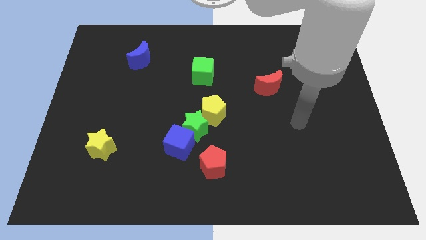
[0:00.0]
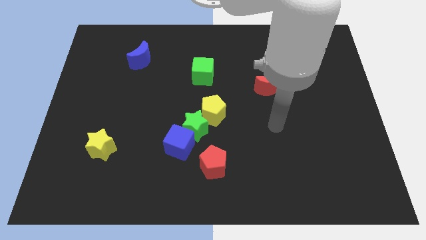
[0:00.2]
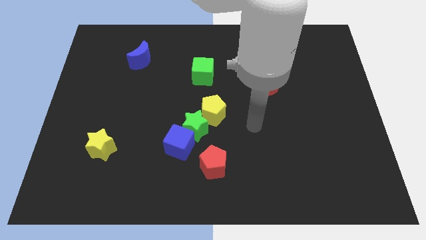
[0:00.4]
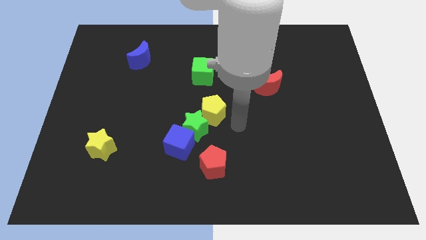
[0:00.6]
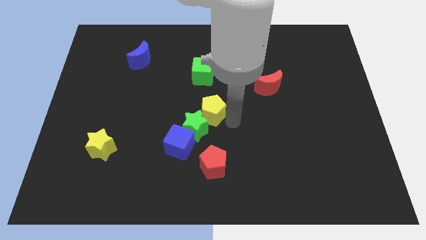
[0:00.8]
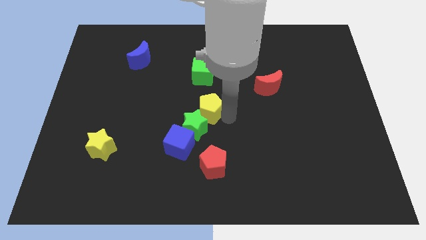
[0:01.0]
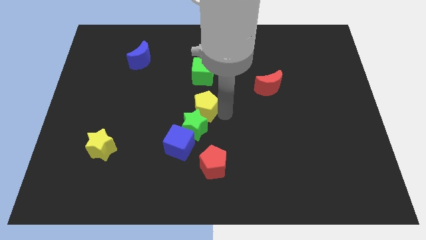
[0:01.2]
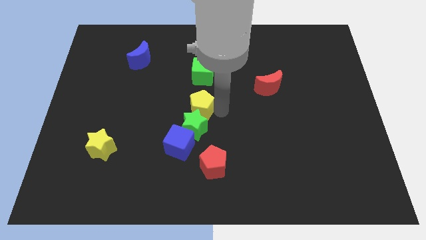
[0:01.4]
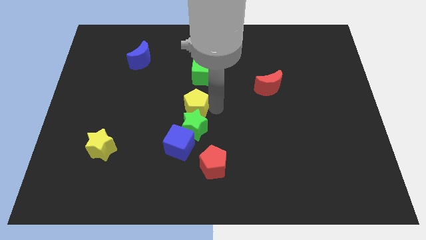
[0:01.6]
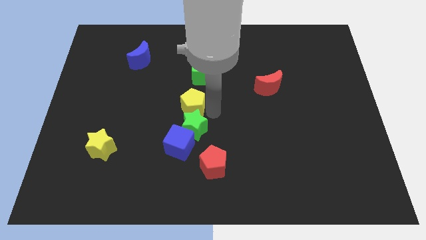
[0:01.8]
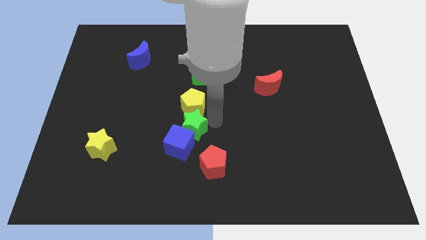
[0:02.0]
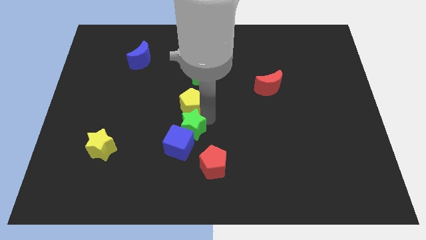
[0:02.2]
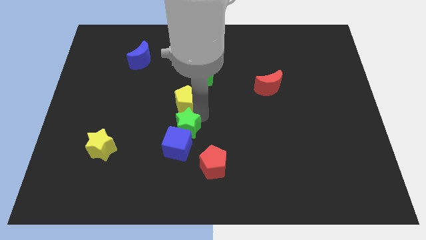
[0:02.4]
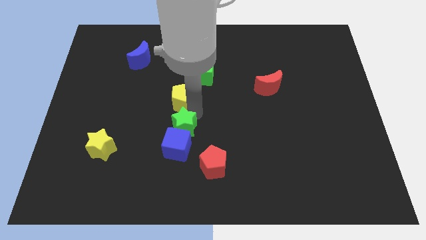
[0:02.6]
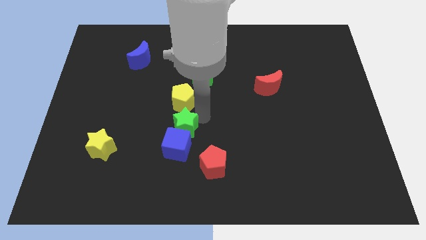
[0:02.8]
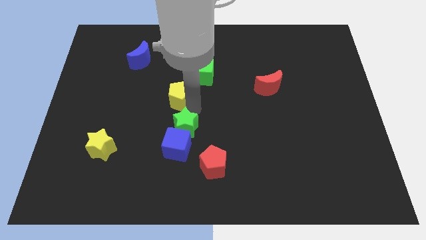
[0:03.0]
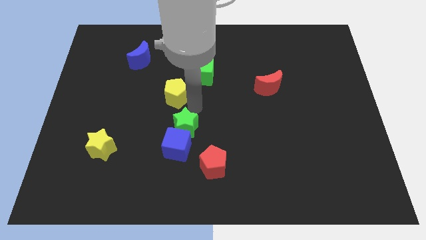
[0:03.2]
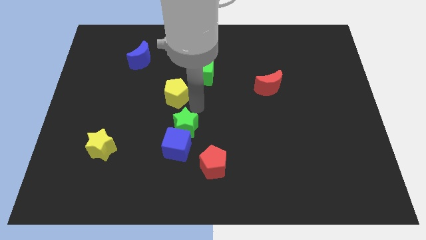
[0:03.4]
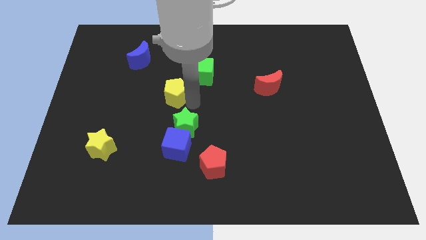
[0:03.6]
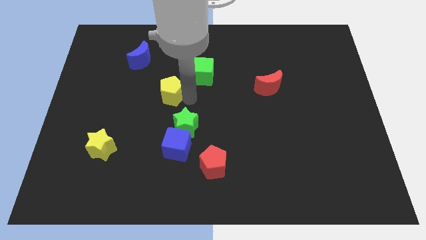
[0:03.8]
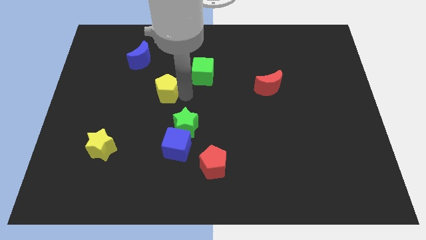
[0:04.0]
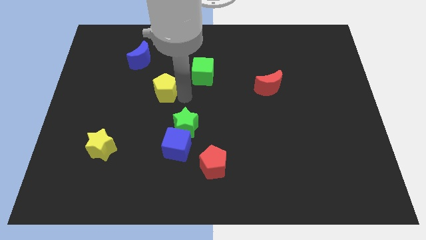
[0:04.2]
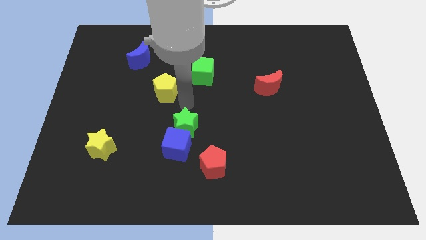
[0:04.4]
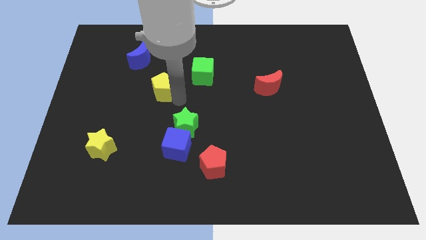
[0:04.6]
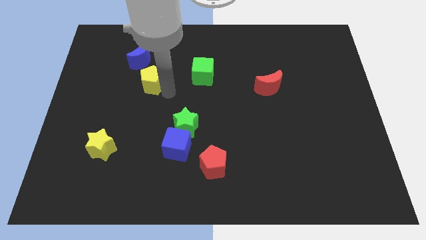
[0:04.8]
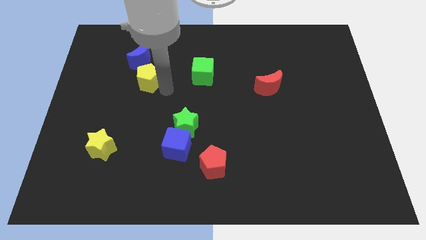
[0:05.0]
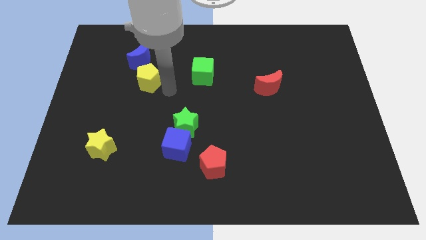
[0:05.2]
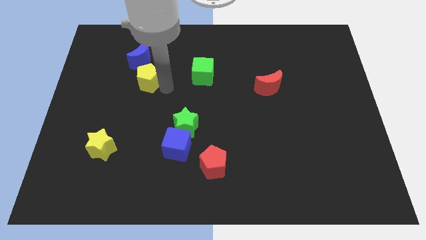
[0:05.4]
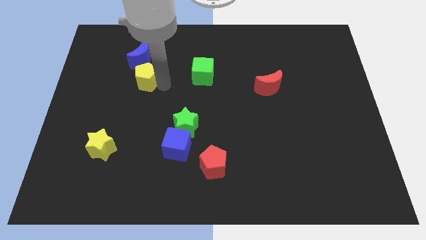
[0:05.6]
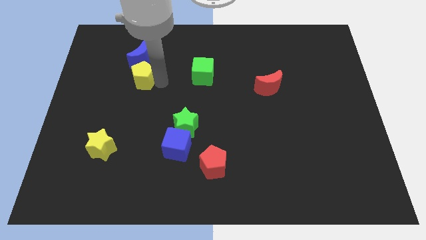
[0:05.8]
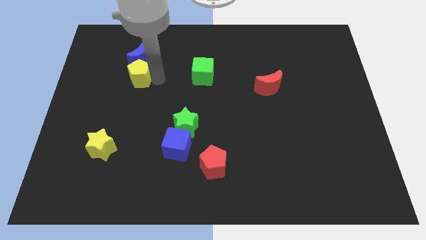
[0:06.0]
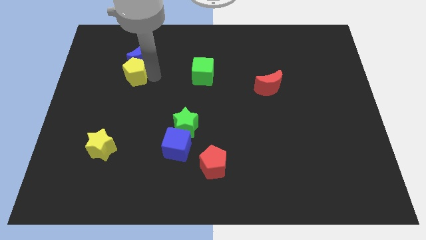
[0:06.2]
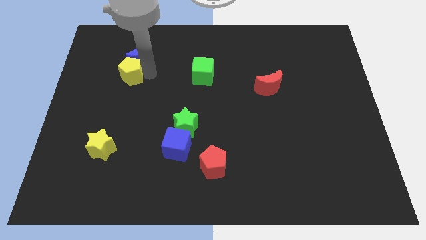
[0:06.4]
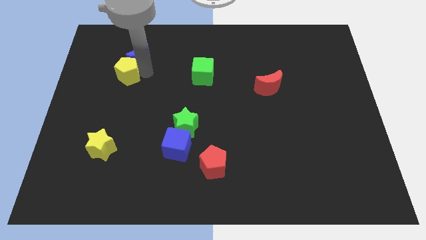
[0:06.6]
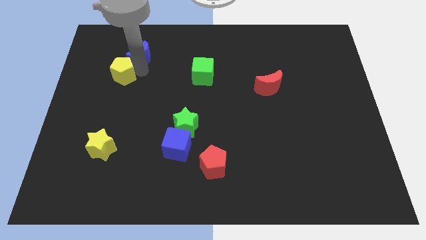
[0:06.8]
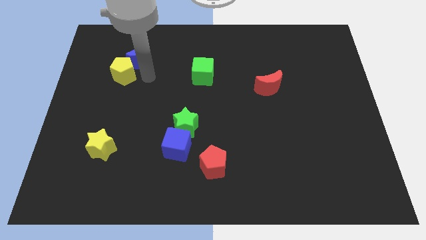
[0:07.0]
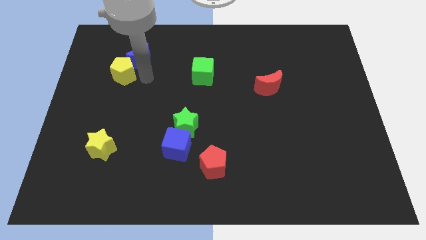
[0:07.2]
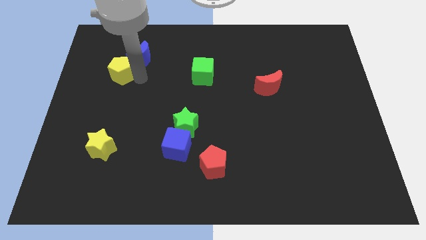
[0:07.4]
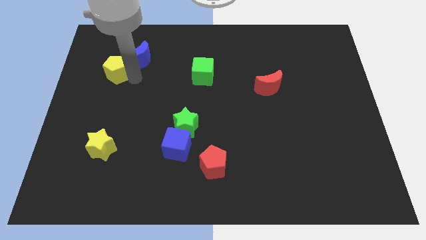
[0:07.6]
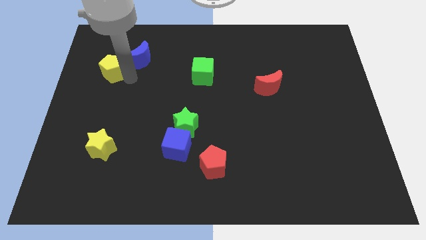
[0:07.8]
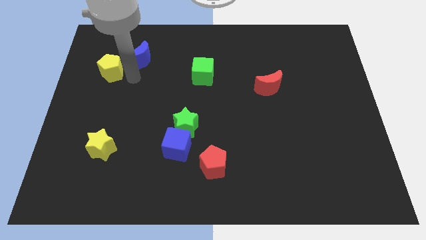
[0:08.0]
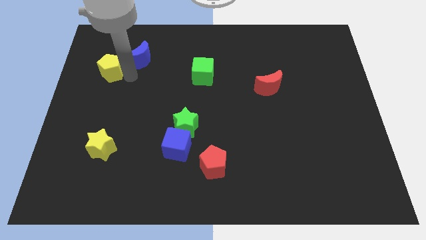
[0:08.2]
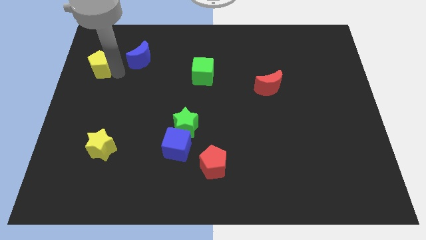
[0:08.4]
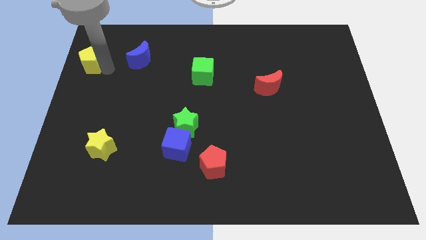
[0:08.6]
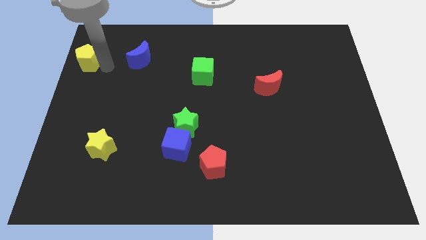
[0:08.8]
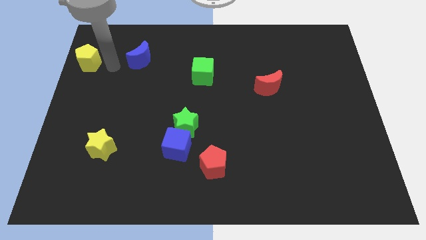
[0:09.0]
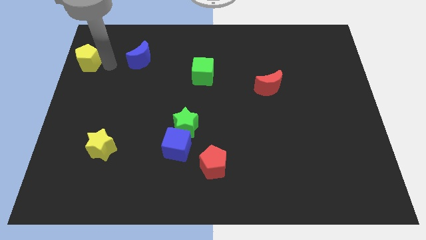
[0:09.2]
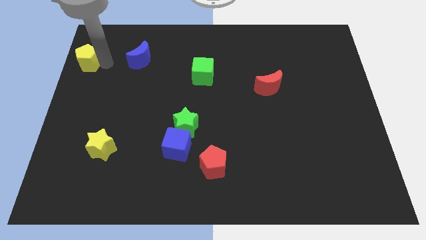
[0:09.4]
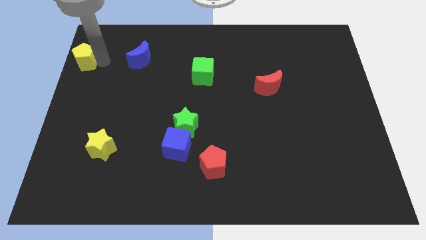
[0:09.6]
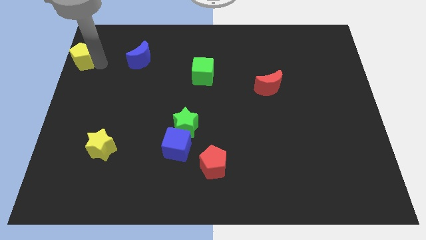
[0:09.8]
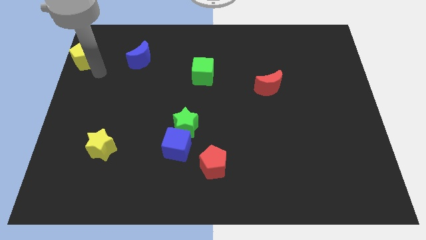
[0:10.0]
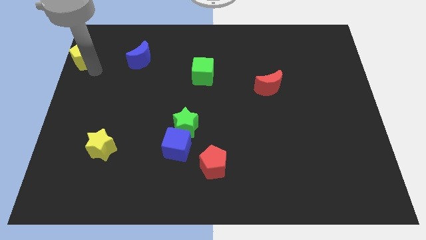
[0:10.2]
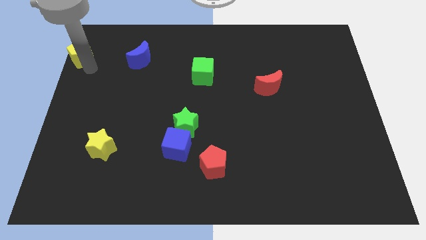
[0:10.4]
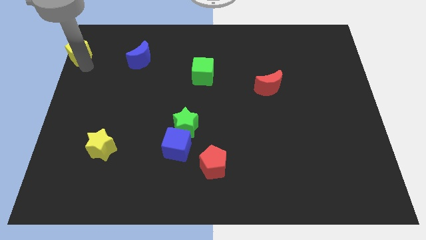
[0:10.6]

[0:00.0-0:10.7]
move the yellow pentagon to the top left corner

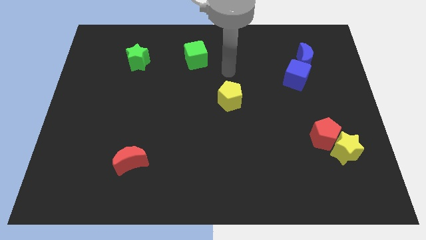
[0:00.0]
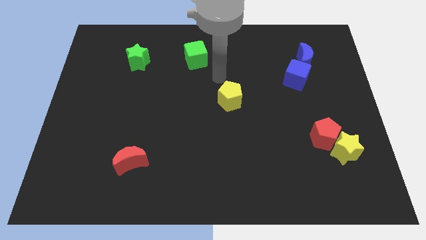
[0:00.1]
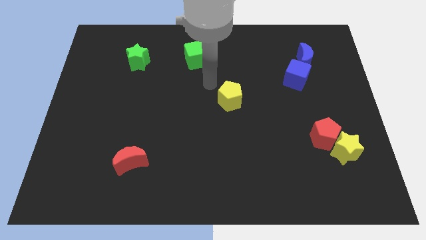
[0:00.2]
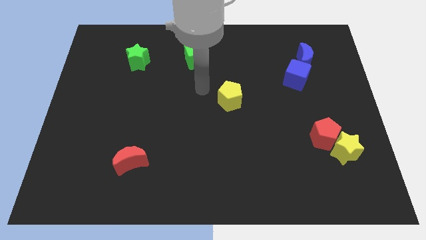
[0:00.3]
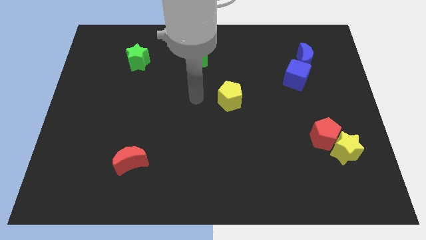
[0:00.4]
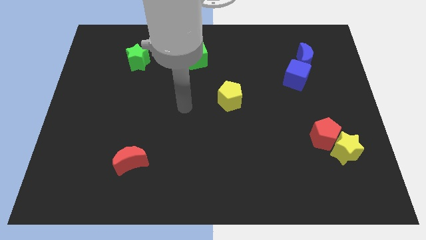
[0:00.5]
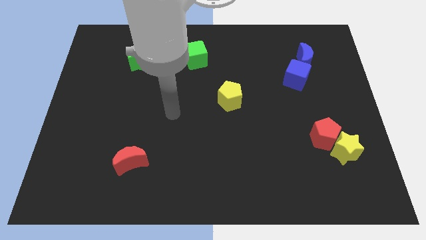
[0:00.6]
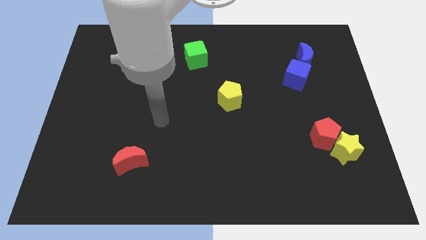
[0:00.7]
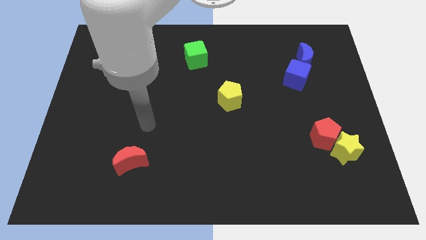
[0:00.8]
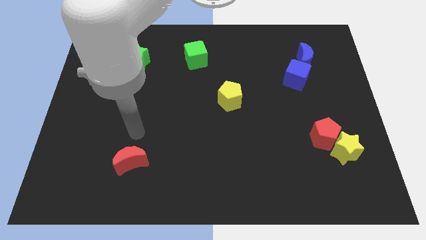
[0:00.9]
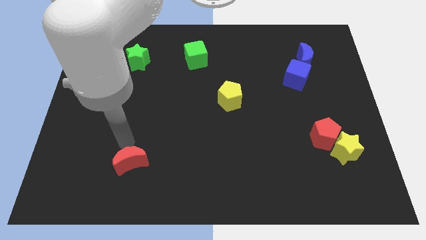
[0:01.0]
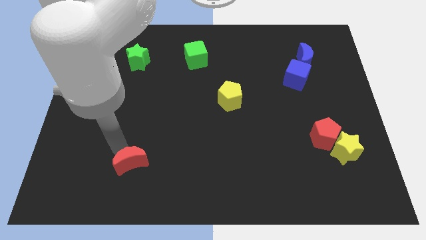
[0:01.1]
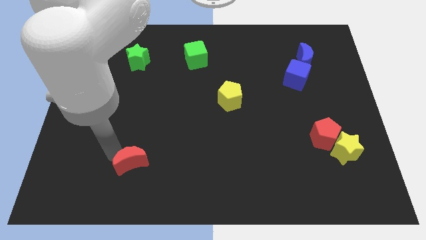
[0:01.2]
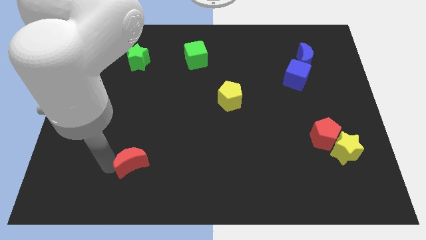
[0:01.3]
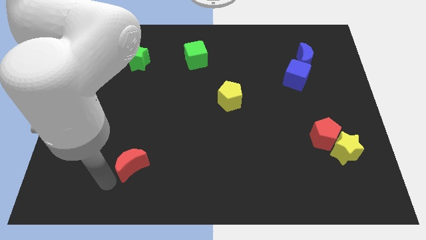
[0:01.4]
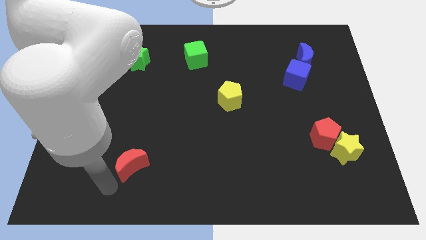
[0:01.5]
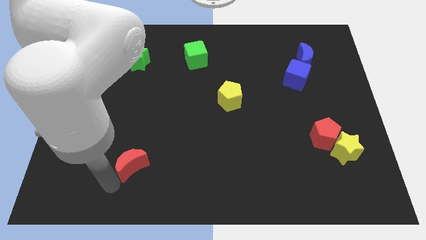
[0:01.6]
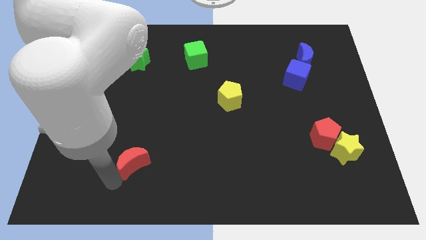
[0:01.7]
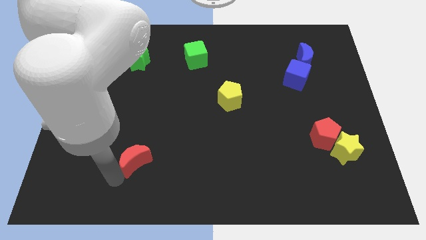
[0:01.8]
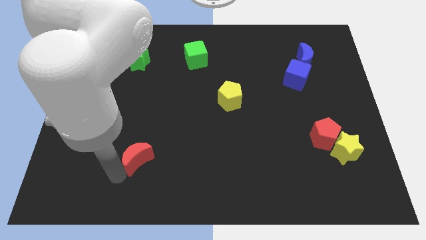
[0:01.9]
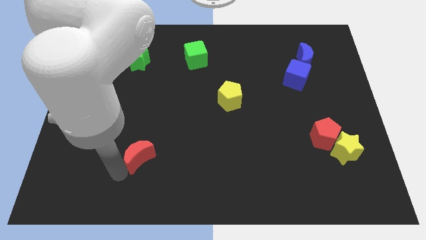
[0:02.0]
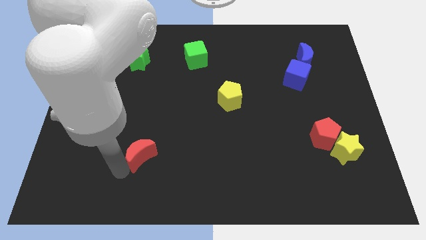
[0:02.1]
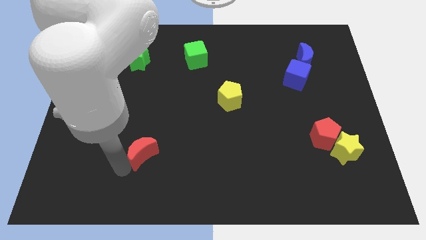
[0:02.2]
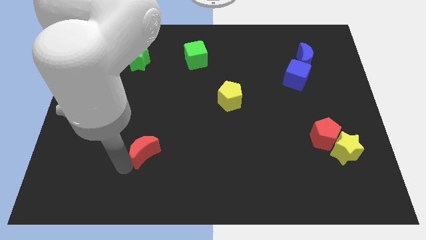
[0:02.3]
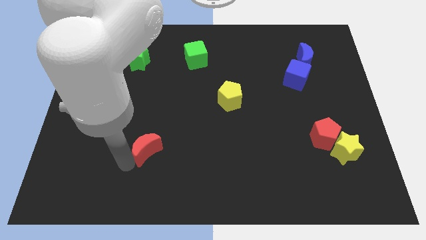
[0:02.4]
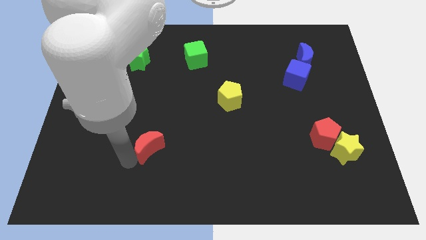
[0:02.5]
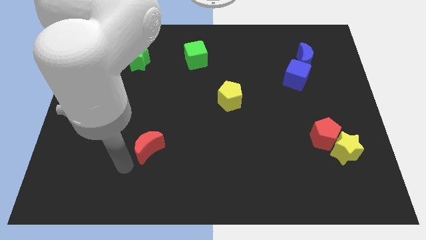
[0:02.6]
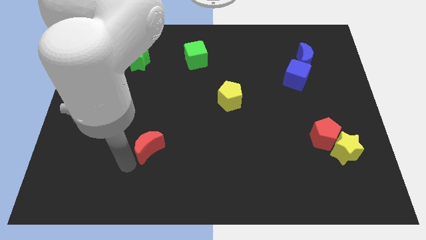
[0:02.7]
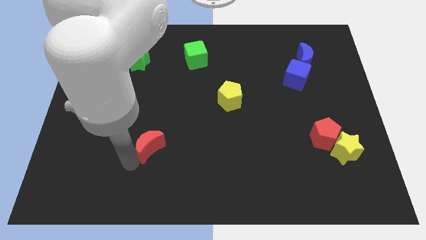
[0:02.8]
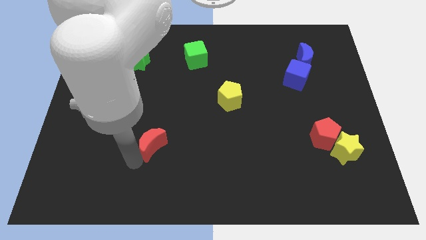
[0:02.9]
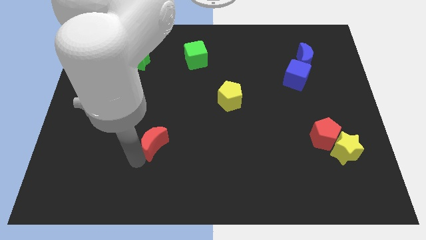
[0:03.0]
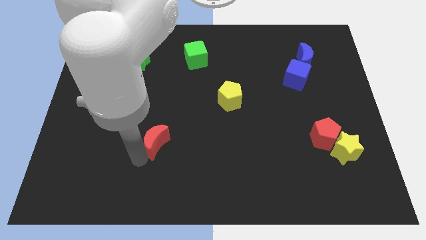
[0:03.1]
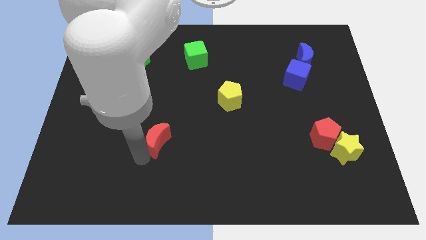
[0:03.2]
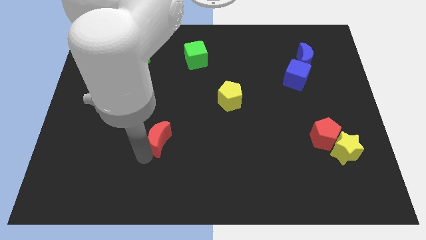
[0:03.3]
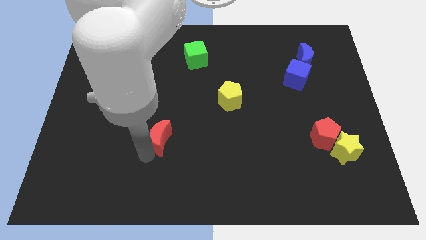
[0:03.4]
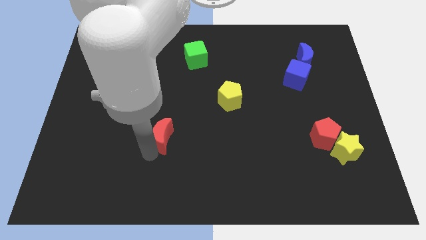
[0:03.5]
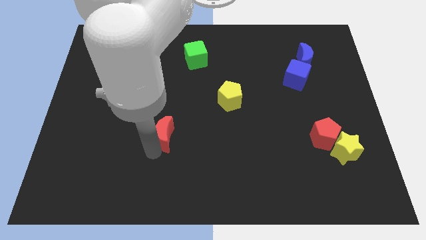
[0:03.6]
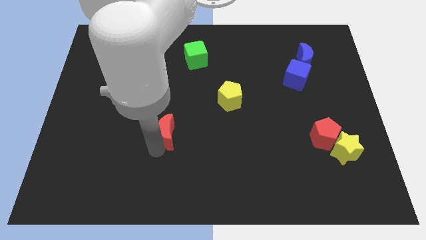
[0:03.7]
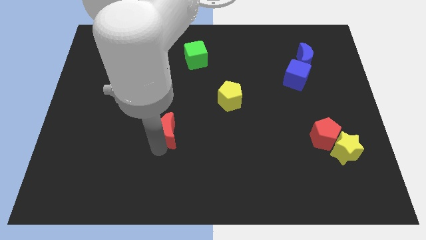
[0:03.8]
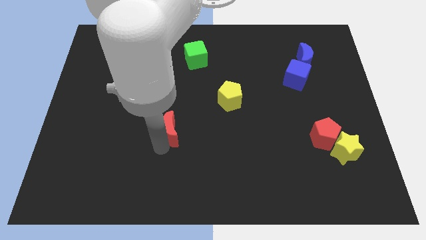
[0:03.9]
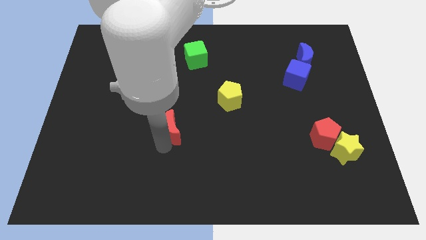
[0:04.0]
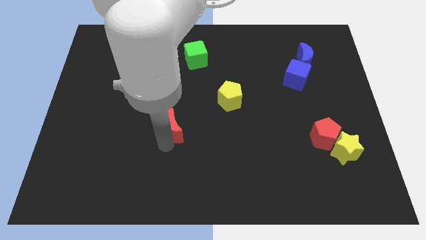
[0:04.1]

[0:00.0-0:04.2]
move the red moon to the center of the board
